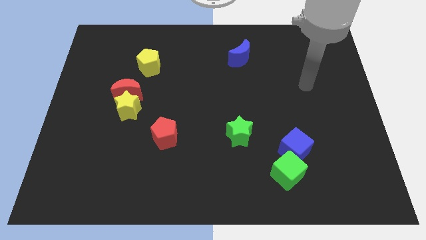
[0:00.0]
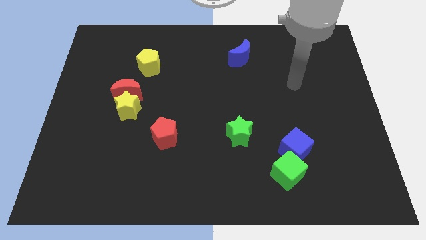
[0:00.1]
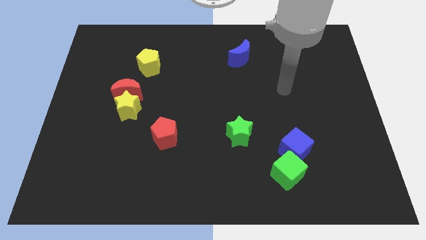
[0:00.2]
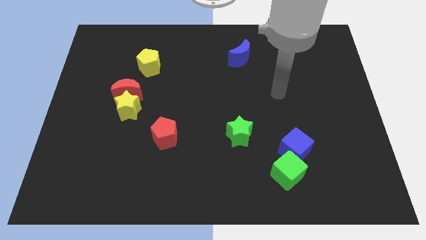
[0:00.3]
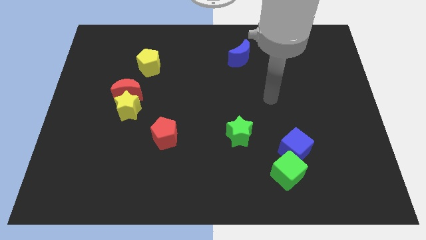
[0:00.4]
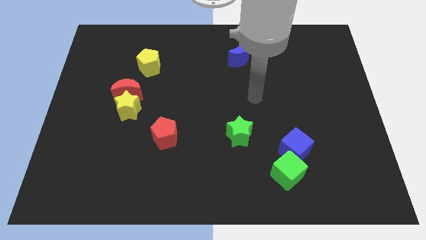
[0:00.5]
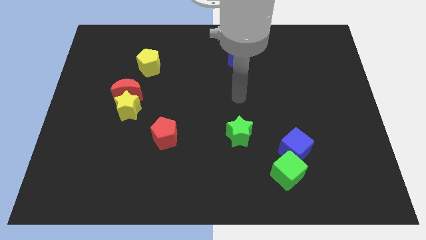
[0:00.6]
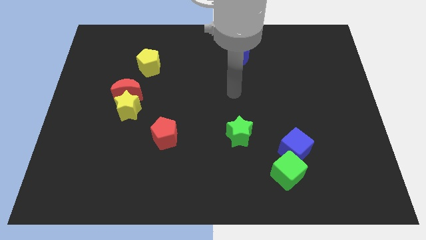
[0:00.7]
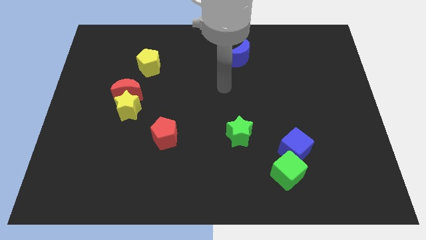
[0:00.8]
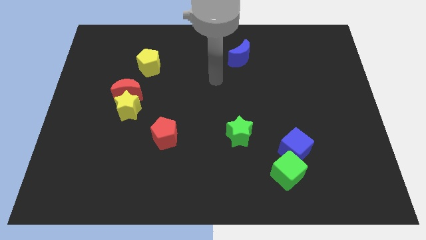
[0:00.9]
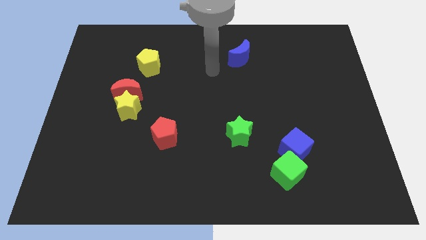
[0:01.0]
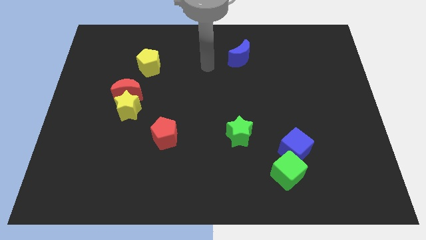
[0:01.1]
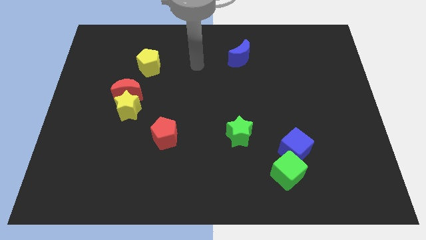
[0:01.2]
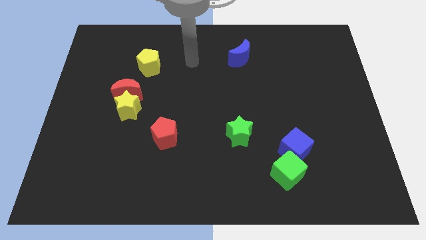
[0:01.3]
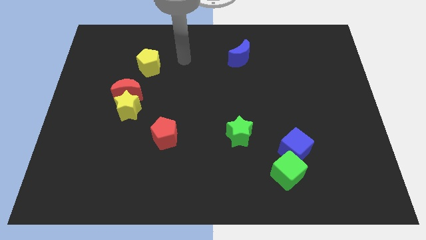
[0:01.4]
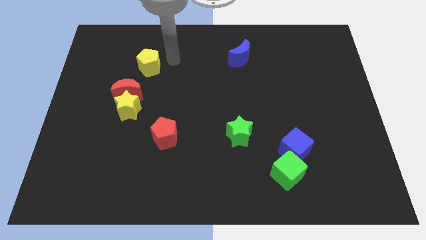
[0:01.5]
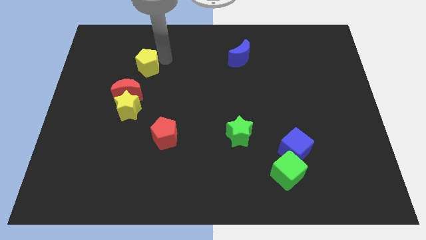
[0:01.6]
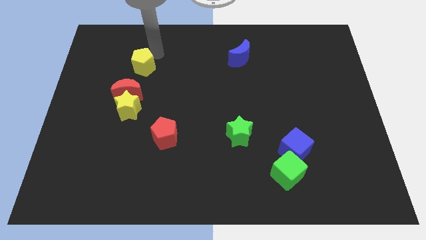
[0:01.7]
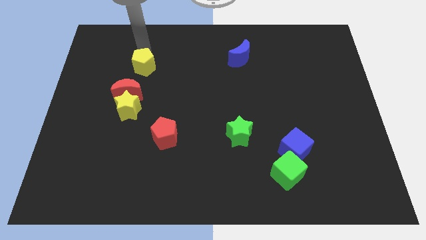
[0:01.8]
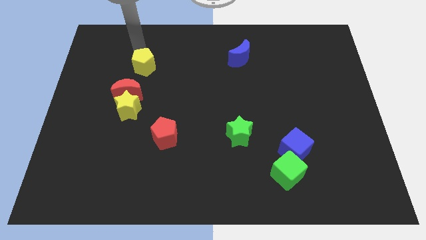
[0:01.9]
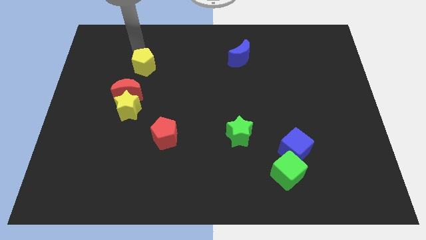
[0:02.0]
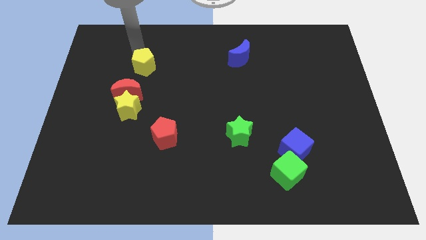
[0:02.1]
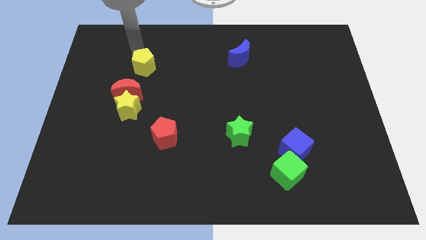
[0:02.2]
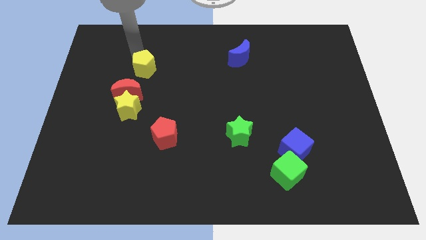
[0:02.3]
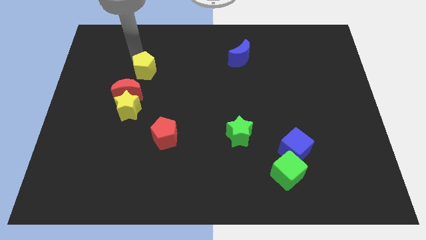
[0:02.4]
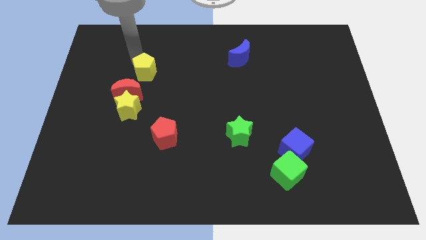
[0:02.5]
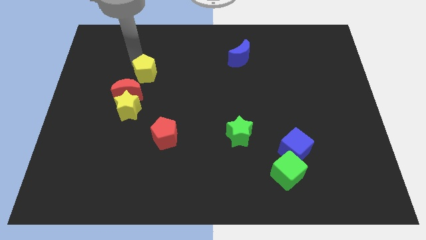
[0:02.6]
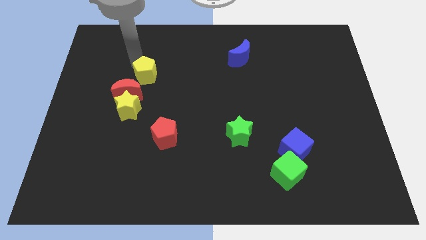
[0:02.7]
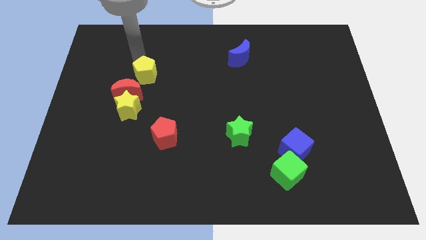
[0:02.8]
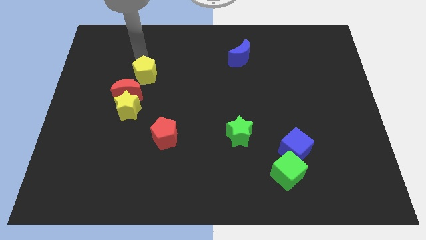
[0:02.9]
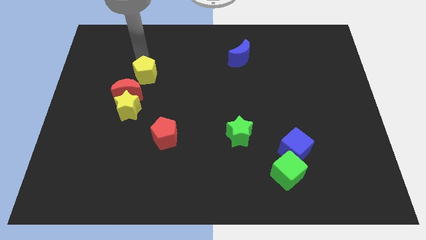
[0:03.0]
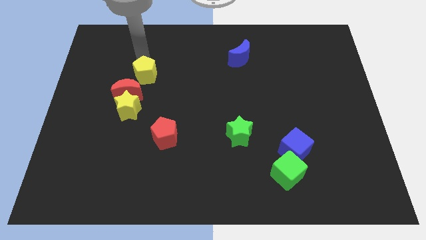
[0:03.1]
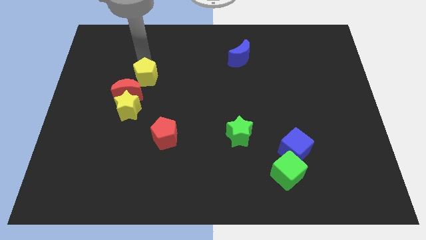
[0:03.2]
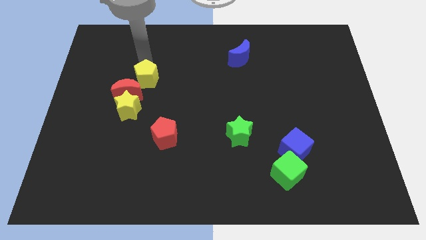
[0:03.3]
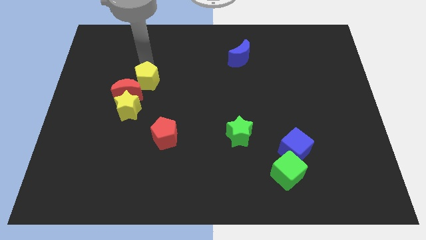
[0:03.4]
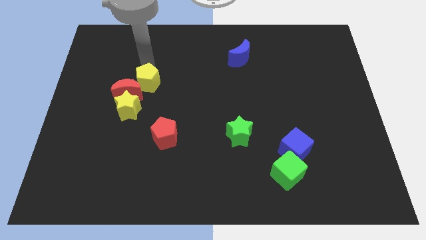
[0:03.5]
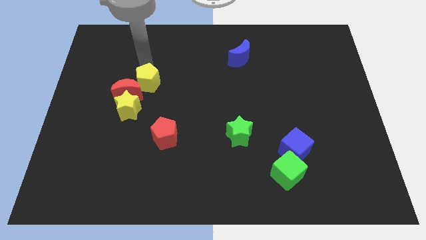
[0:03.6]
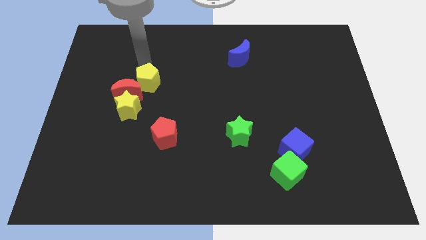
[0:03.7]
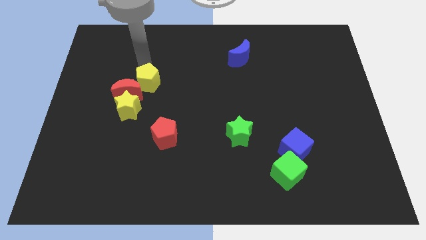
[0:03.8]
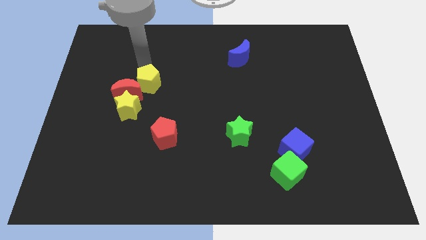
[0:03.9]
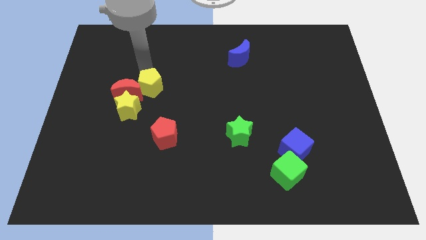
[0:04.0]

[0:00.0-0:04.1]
slide the yellow pentagon downwards slightly

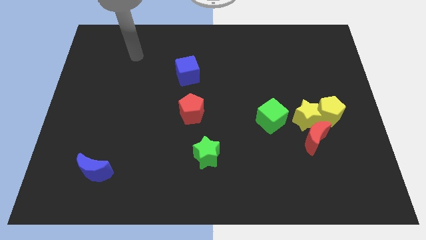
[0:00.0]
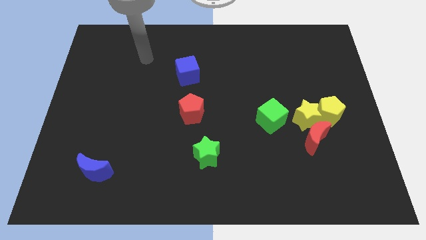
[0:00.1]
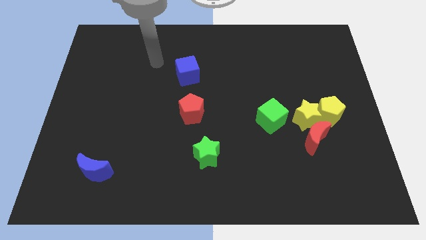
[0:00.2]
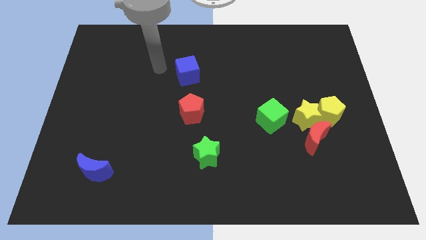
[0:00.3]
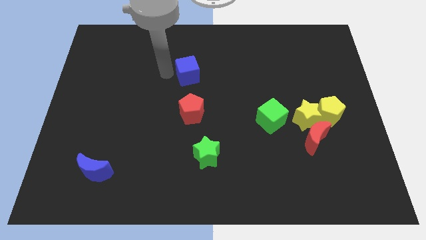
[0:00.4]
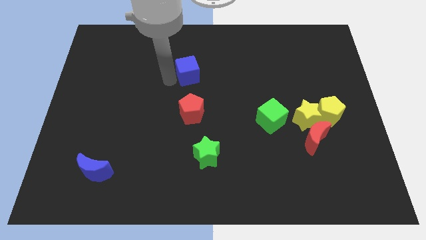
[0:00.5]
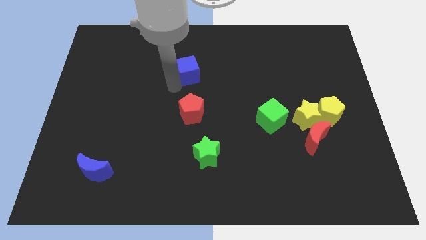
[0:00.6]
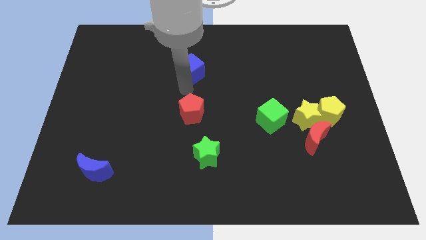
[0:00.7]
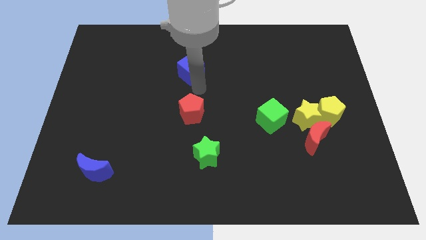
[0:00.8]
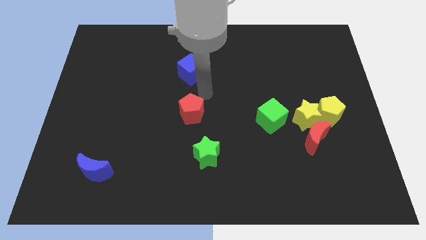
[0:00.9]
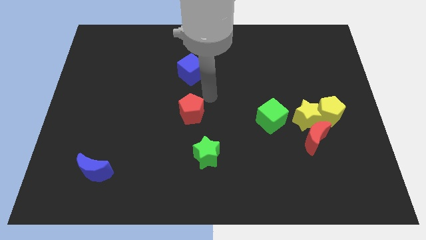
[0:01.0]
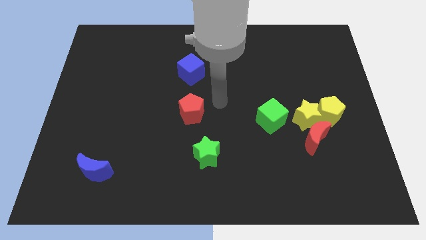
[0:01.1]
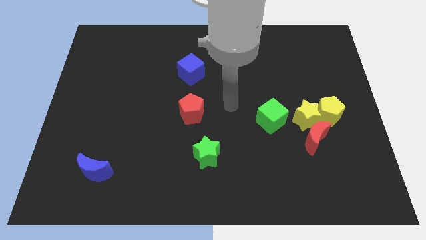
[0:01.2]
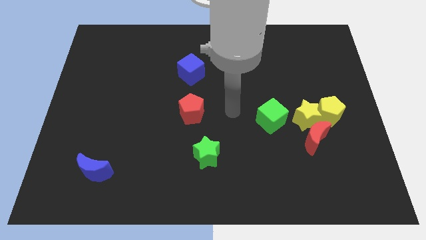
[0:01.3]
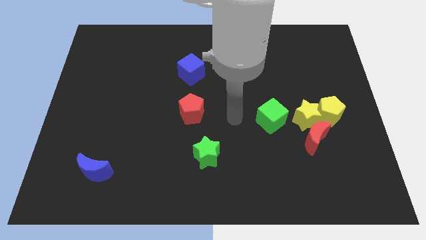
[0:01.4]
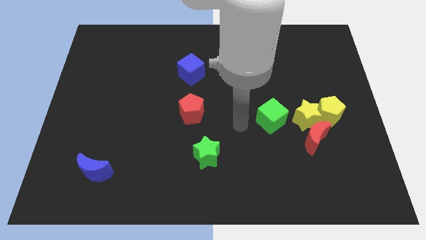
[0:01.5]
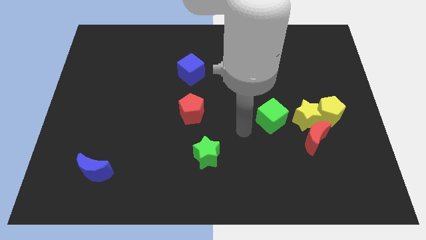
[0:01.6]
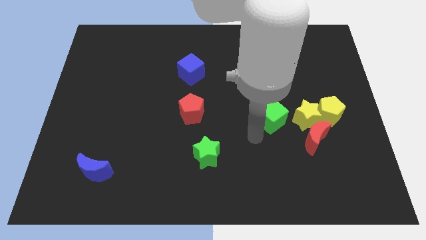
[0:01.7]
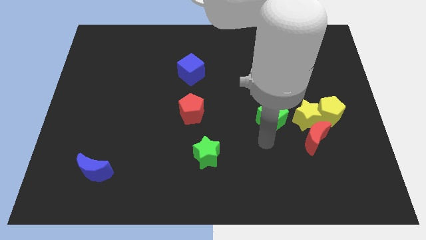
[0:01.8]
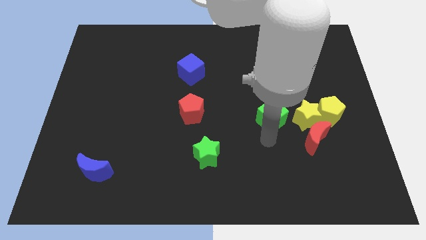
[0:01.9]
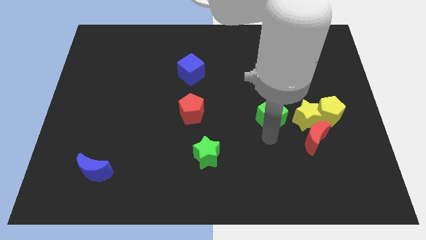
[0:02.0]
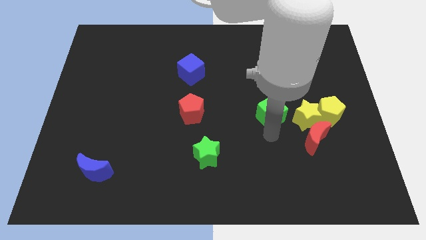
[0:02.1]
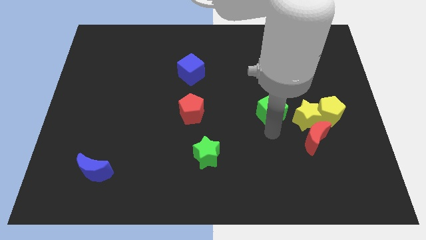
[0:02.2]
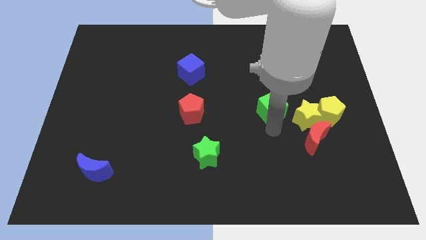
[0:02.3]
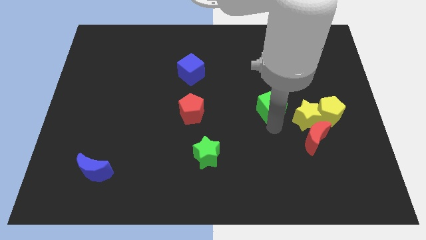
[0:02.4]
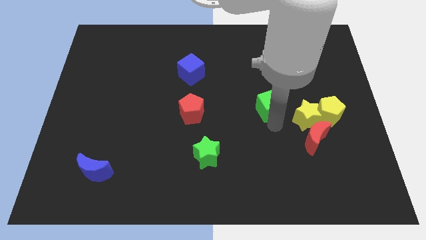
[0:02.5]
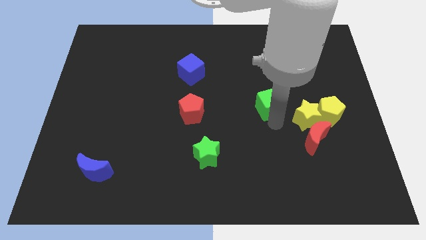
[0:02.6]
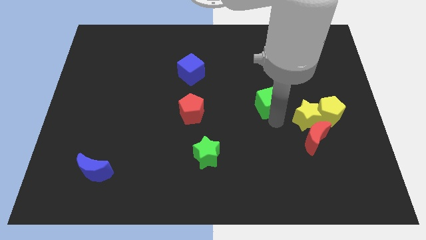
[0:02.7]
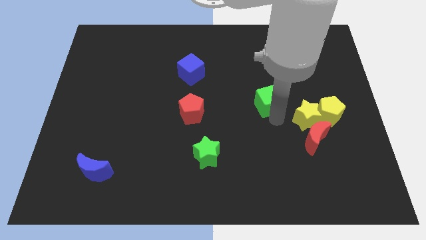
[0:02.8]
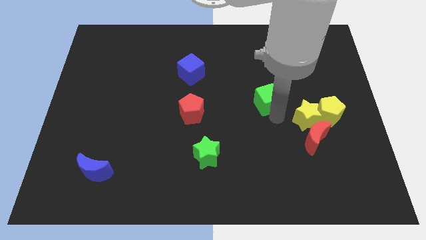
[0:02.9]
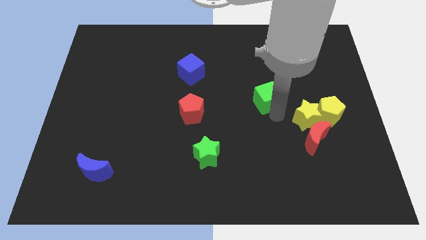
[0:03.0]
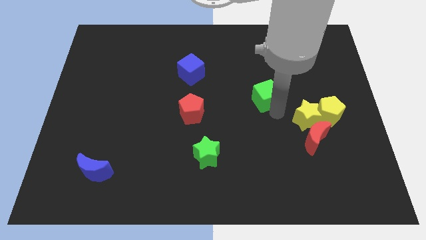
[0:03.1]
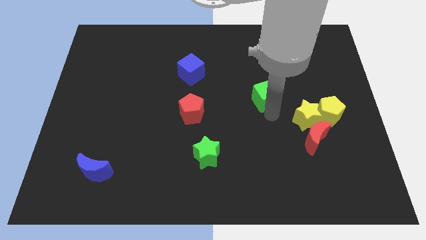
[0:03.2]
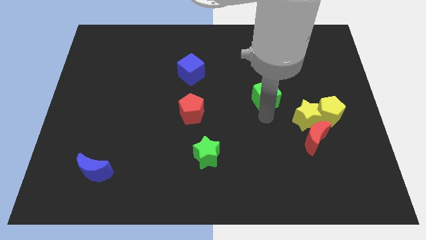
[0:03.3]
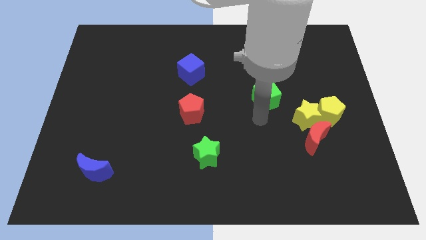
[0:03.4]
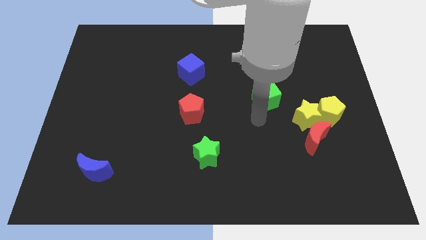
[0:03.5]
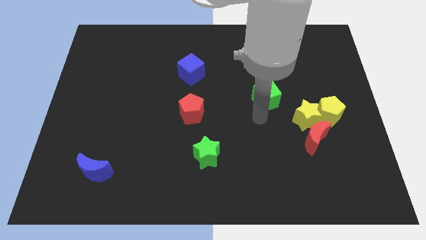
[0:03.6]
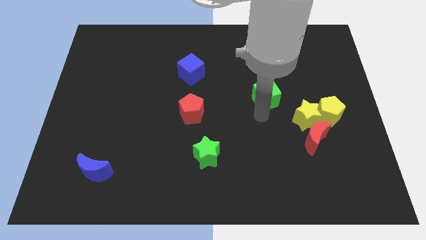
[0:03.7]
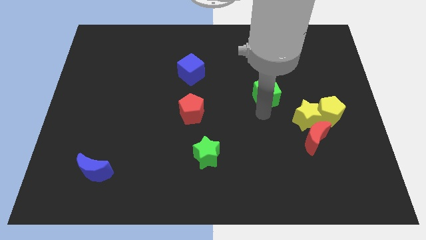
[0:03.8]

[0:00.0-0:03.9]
slightly move the green cube upwards

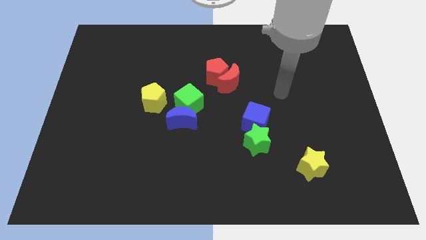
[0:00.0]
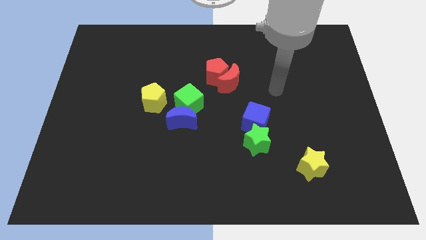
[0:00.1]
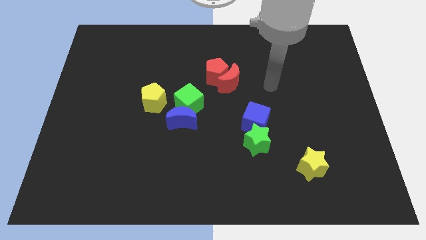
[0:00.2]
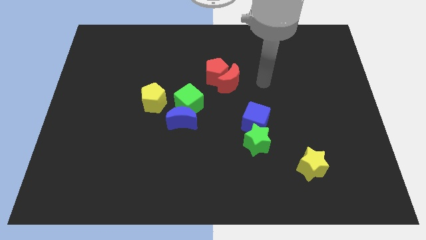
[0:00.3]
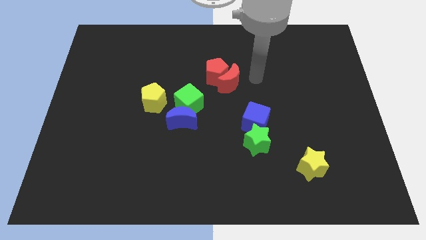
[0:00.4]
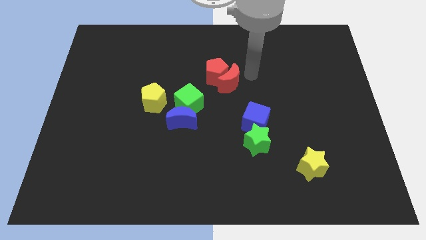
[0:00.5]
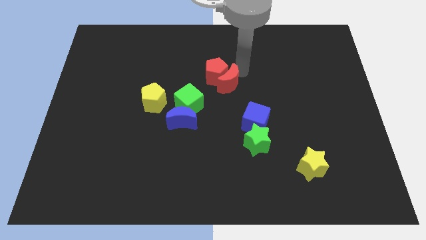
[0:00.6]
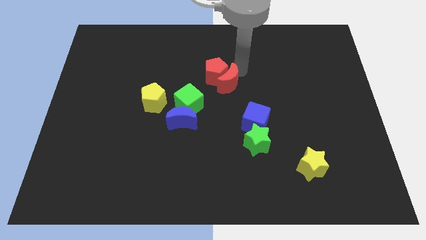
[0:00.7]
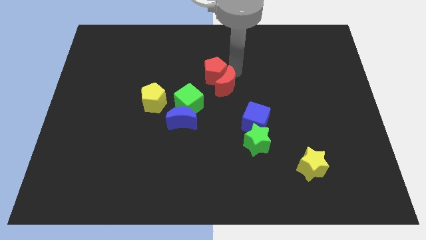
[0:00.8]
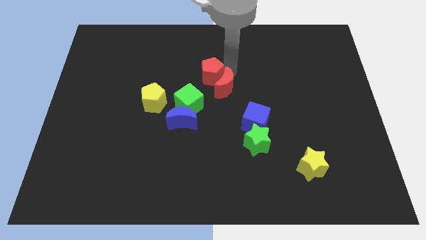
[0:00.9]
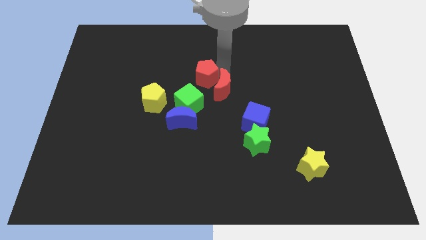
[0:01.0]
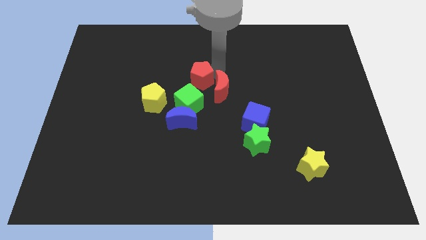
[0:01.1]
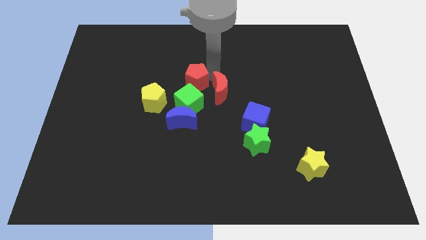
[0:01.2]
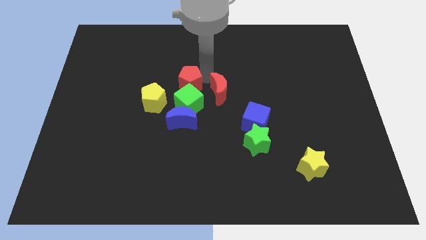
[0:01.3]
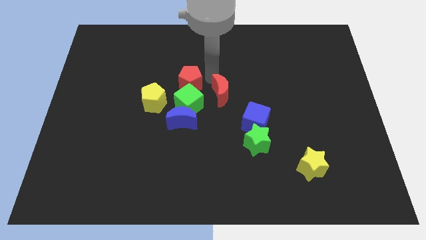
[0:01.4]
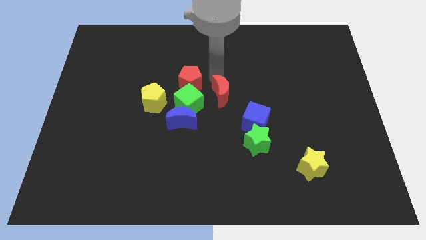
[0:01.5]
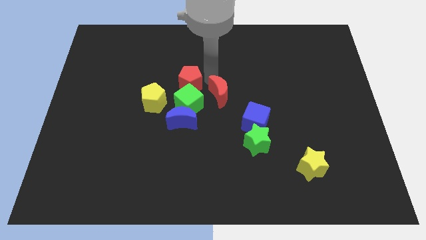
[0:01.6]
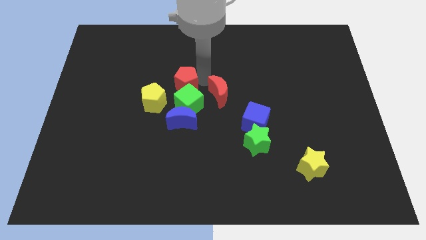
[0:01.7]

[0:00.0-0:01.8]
move the red pentagon downwards and then left a little bit
